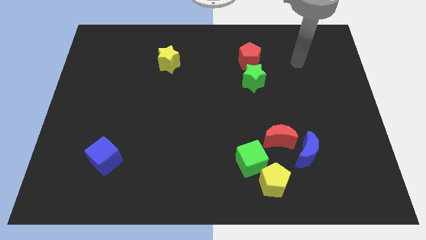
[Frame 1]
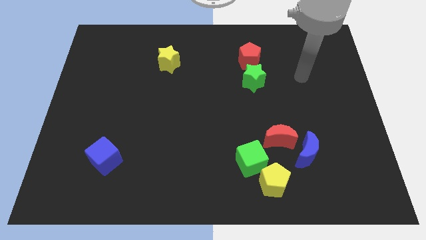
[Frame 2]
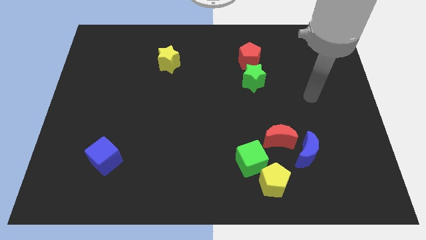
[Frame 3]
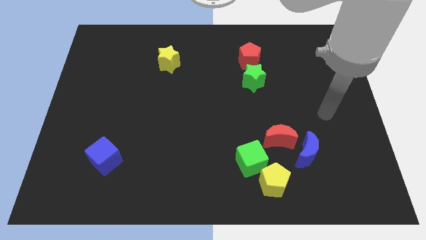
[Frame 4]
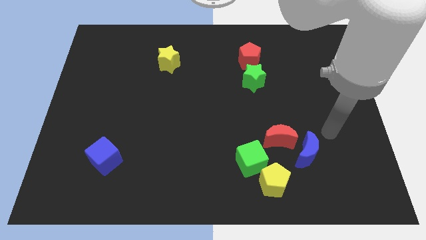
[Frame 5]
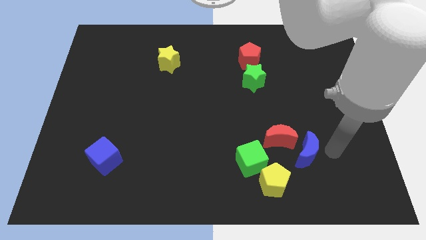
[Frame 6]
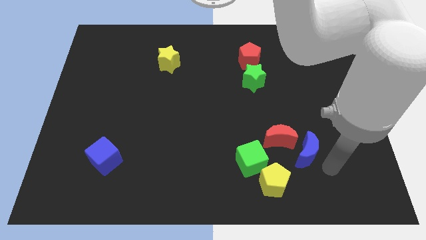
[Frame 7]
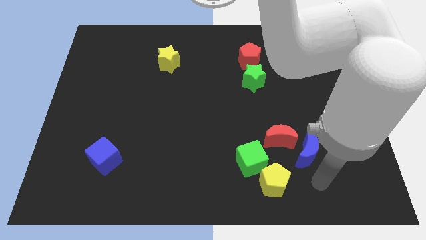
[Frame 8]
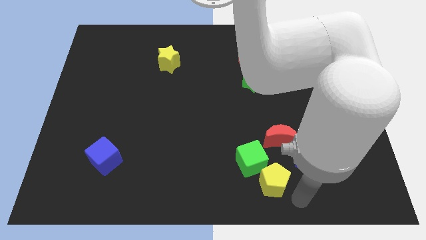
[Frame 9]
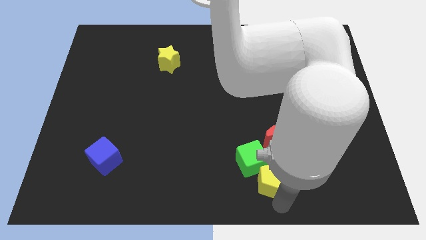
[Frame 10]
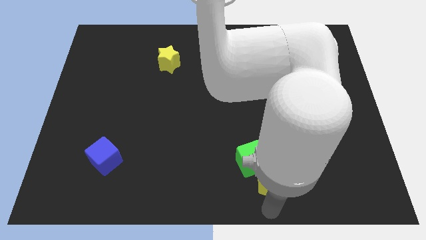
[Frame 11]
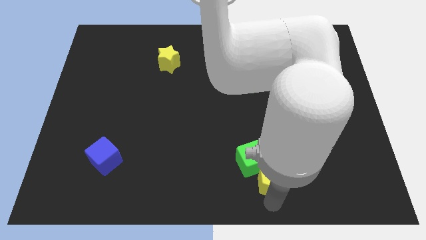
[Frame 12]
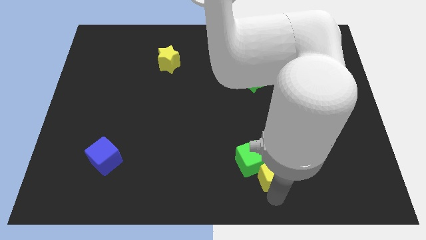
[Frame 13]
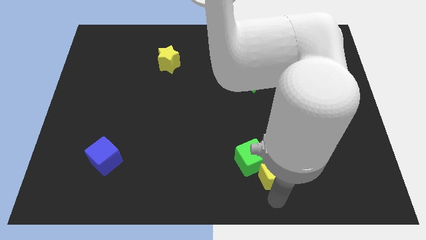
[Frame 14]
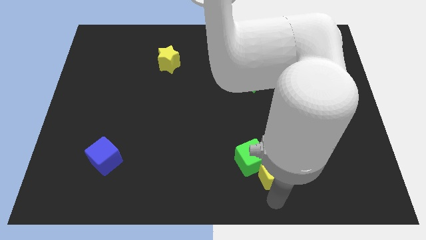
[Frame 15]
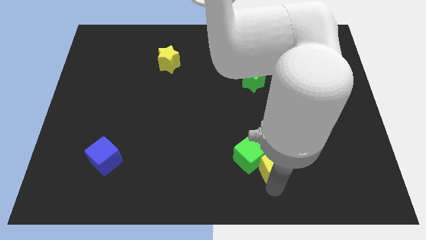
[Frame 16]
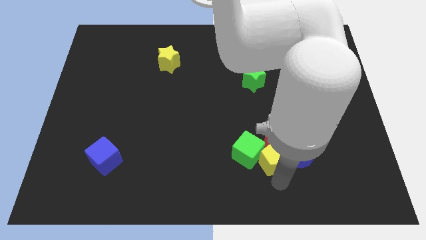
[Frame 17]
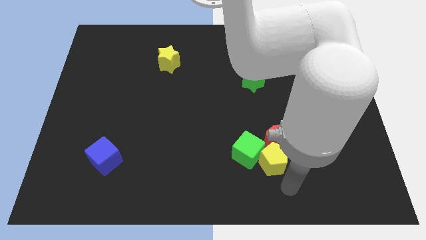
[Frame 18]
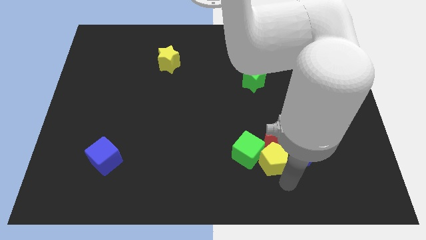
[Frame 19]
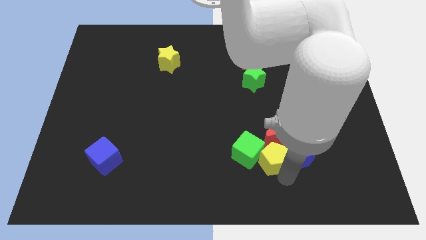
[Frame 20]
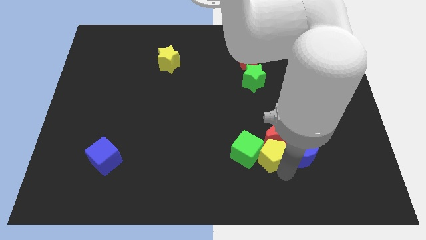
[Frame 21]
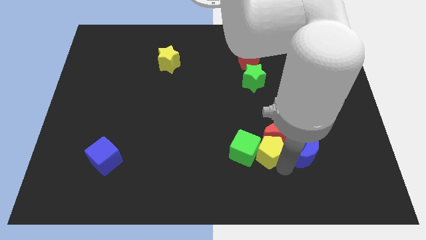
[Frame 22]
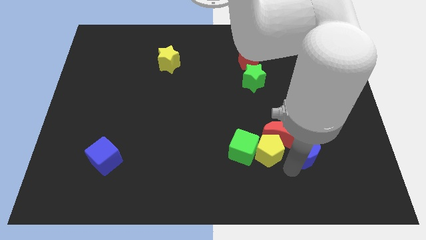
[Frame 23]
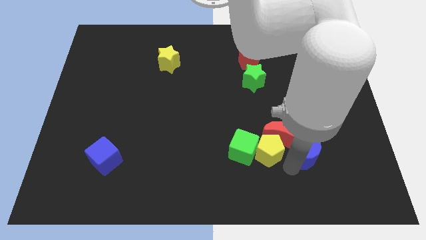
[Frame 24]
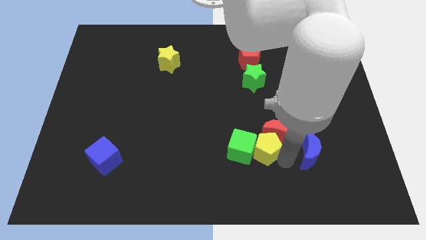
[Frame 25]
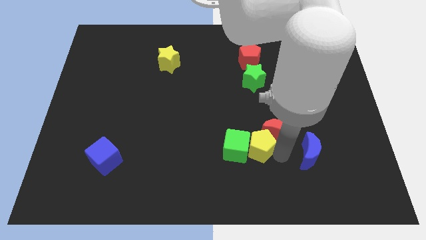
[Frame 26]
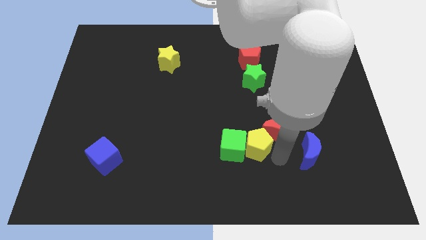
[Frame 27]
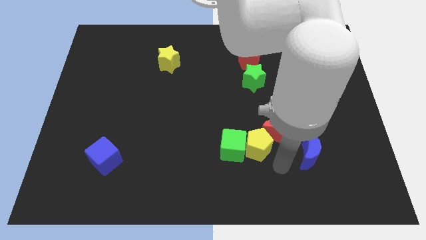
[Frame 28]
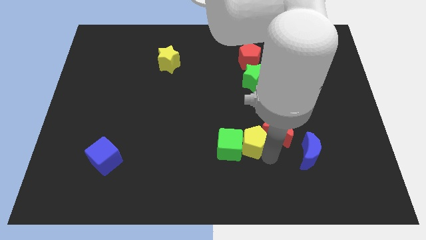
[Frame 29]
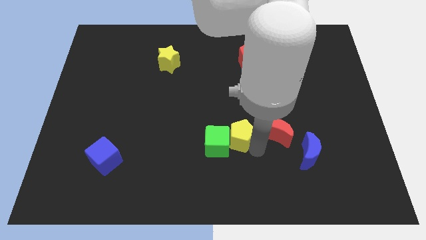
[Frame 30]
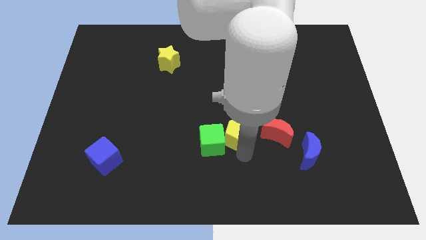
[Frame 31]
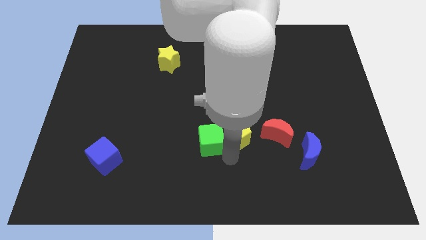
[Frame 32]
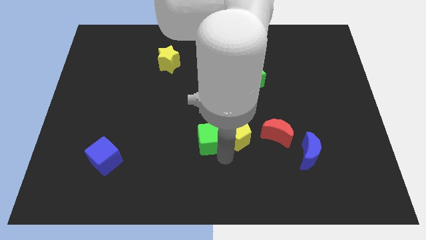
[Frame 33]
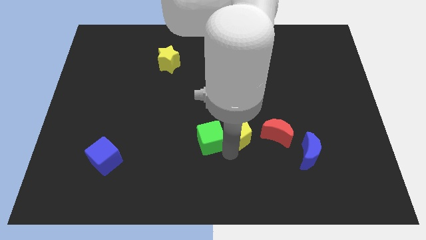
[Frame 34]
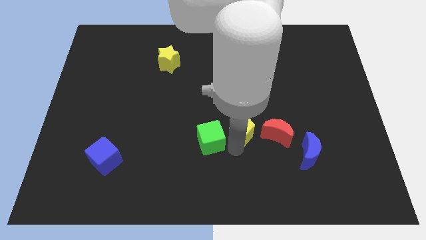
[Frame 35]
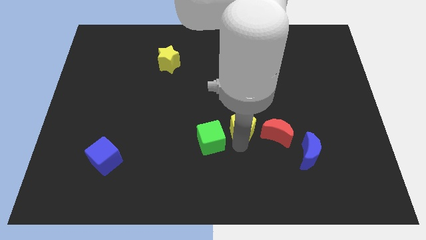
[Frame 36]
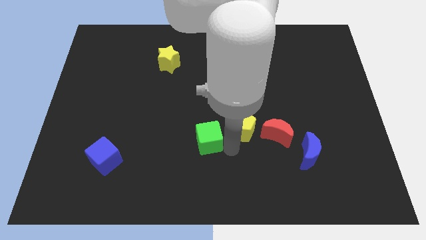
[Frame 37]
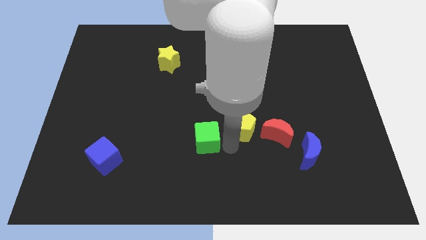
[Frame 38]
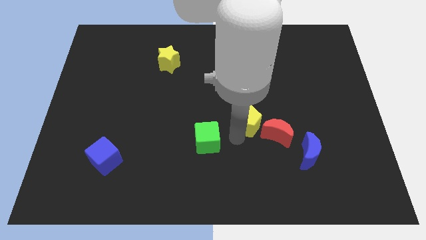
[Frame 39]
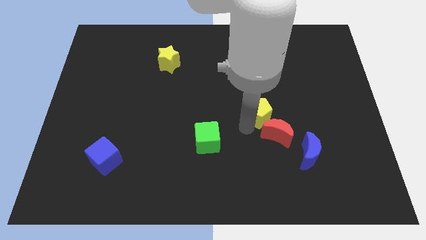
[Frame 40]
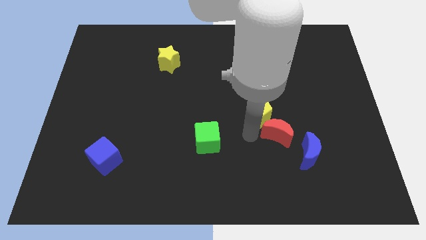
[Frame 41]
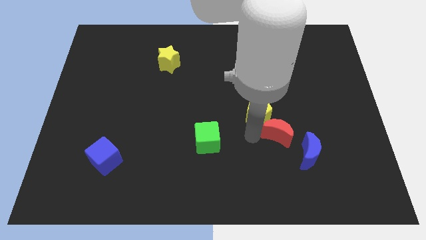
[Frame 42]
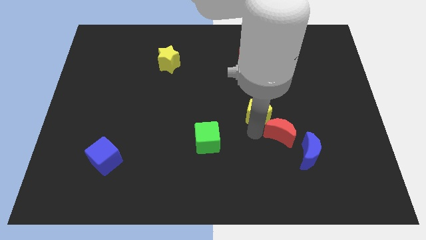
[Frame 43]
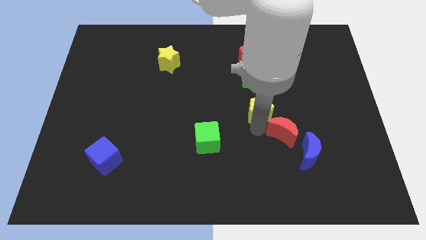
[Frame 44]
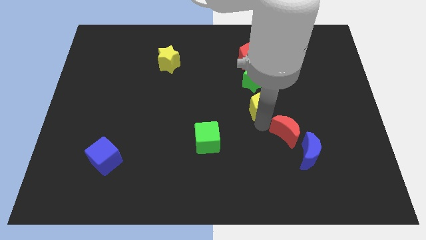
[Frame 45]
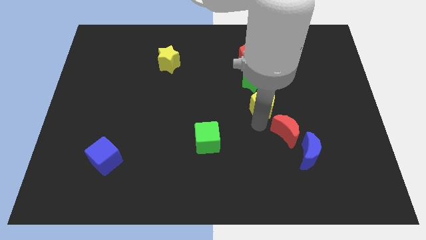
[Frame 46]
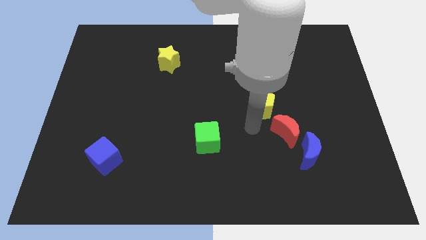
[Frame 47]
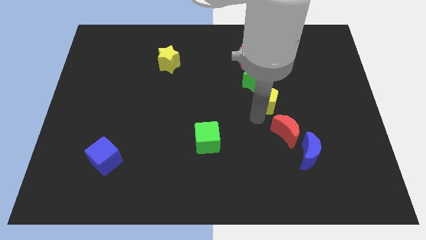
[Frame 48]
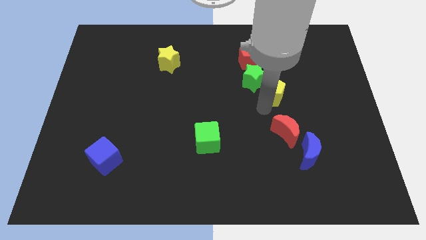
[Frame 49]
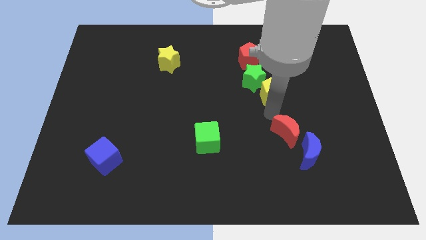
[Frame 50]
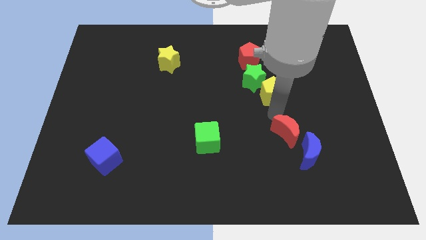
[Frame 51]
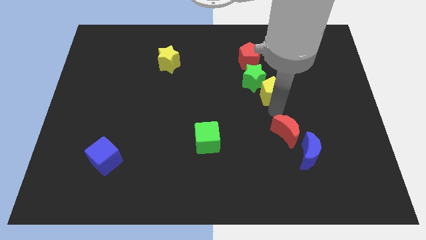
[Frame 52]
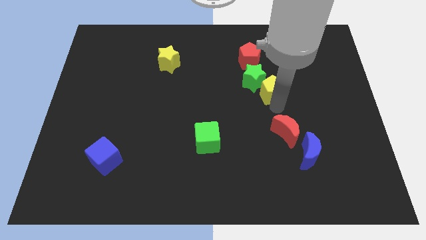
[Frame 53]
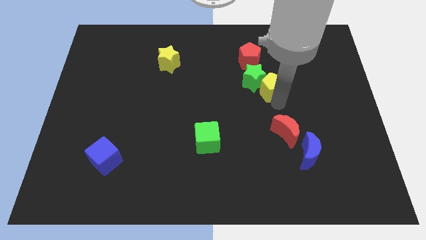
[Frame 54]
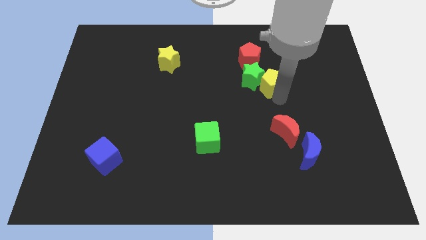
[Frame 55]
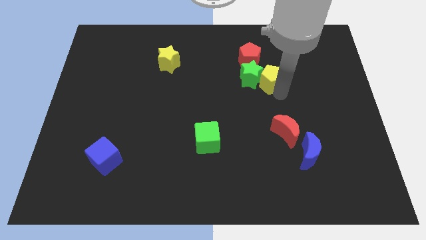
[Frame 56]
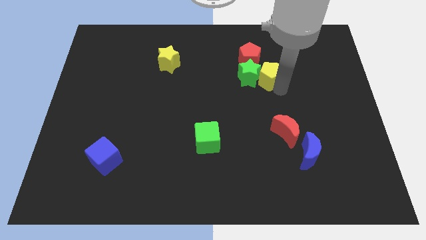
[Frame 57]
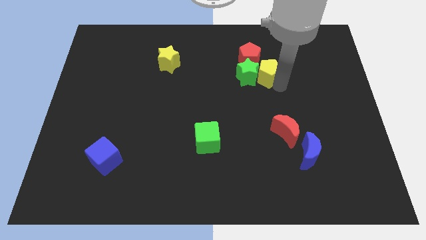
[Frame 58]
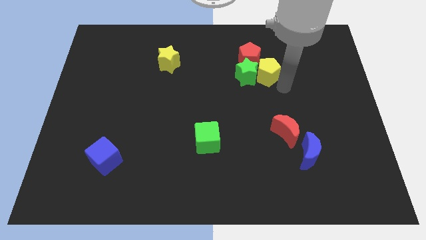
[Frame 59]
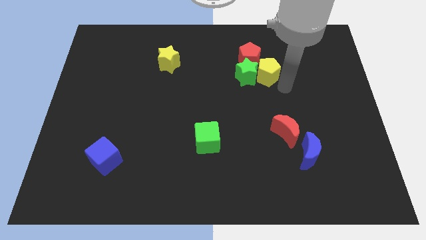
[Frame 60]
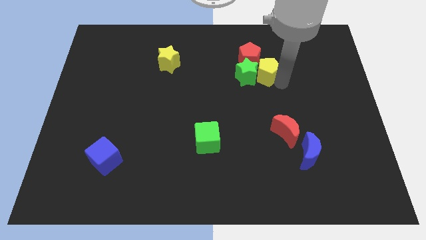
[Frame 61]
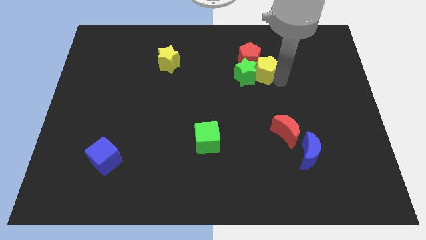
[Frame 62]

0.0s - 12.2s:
move the yellow pentagon close to the red pentagon
